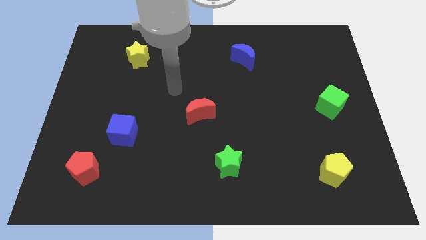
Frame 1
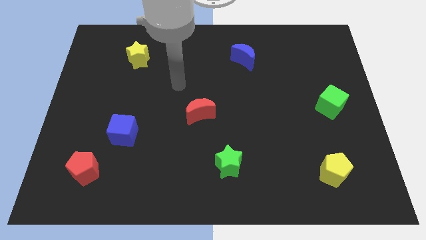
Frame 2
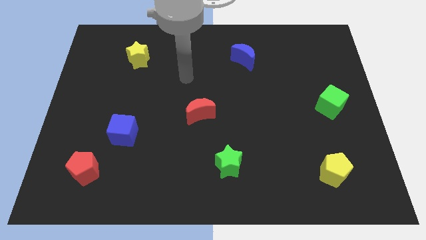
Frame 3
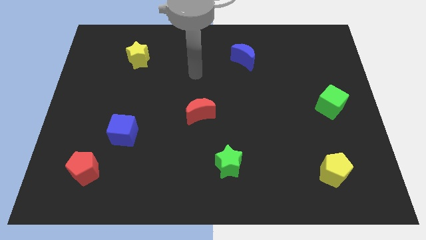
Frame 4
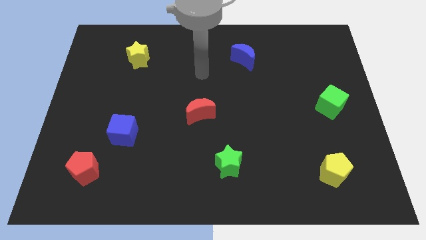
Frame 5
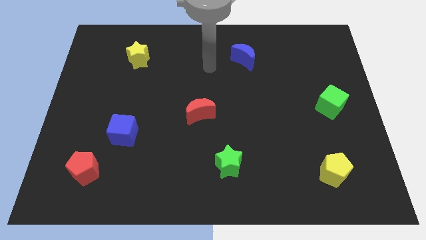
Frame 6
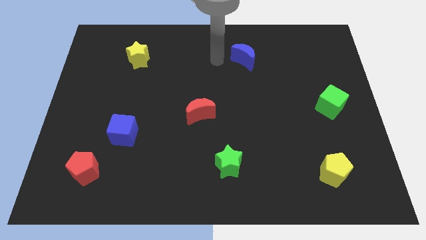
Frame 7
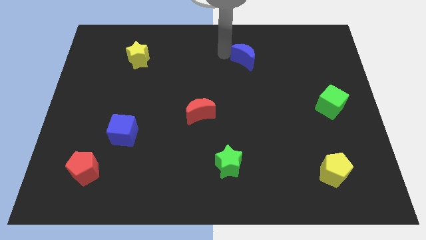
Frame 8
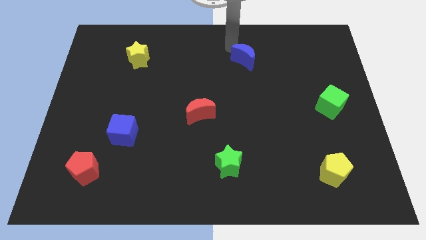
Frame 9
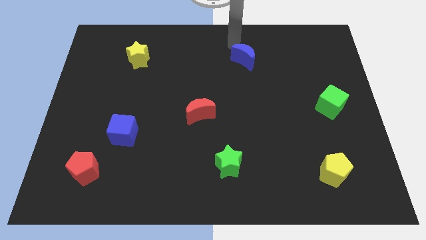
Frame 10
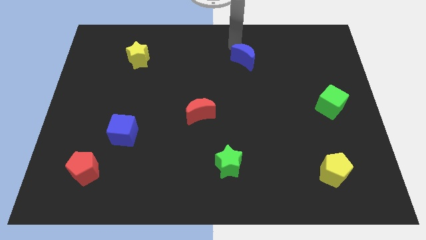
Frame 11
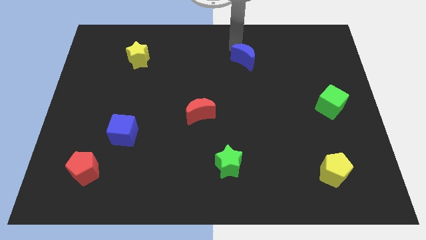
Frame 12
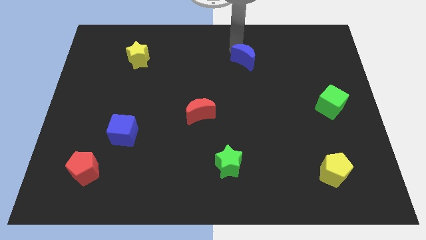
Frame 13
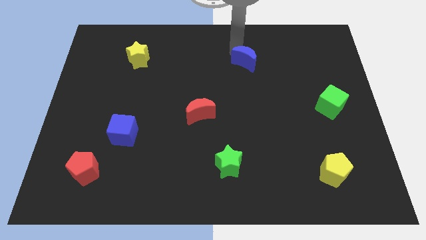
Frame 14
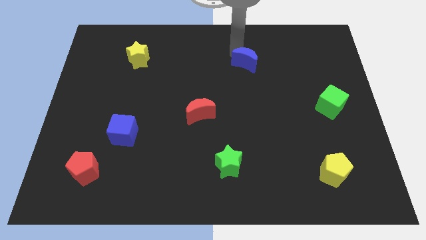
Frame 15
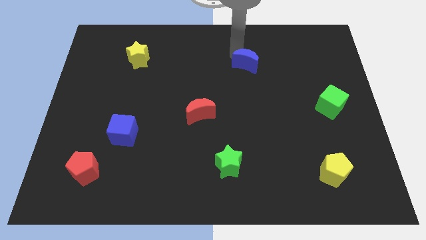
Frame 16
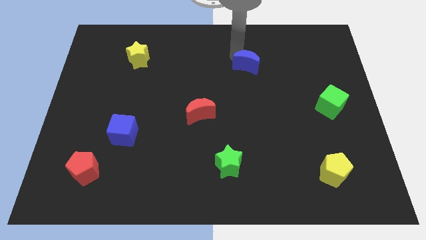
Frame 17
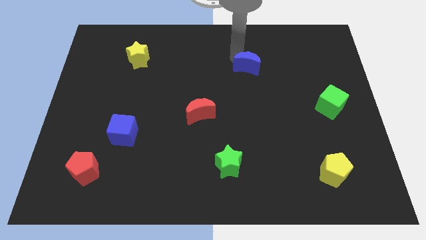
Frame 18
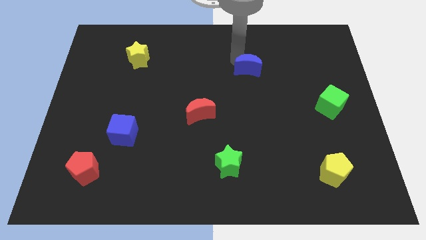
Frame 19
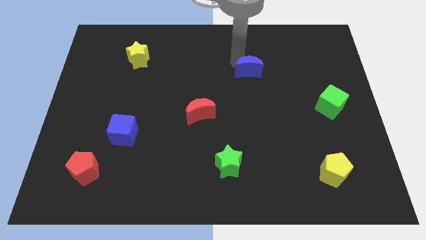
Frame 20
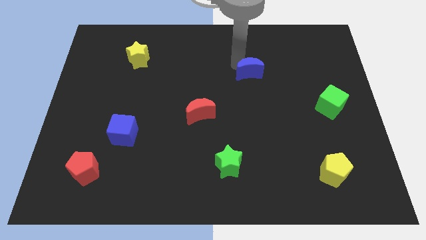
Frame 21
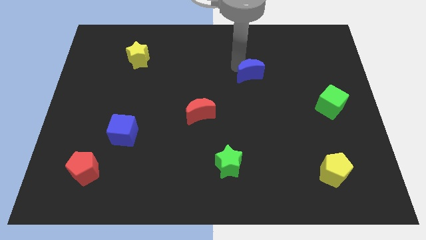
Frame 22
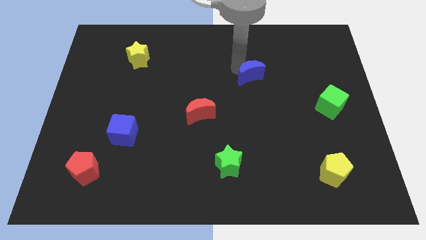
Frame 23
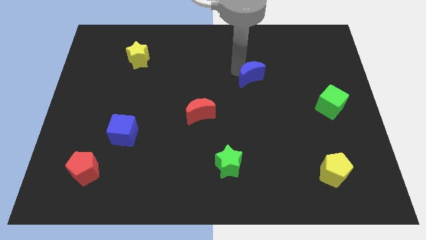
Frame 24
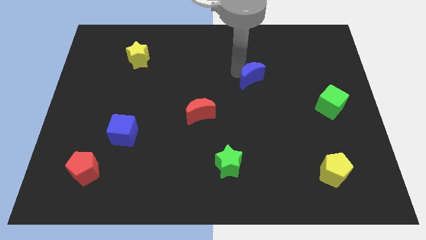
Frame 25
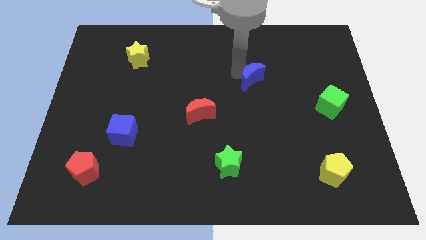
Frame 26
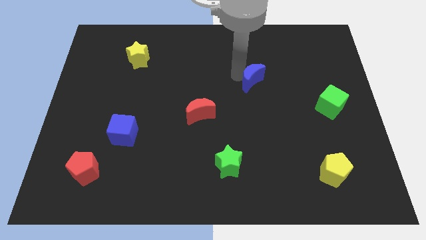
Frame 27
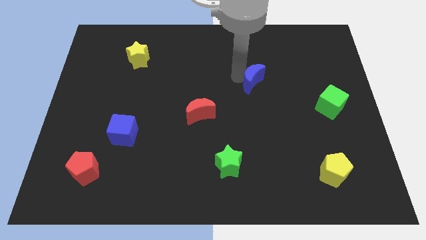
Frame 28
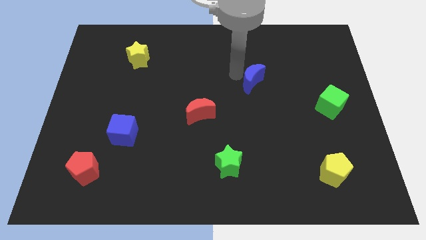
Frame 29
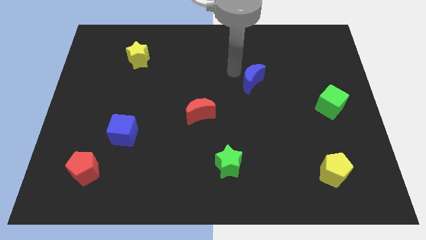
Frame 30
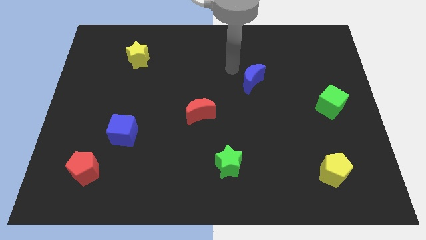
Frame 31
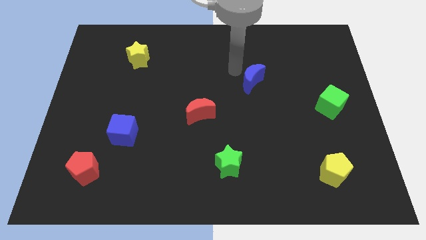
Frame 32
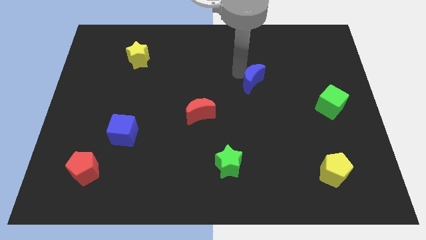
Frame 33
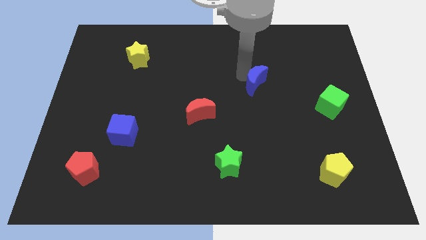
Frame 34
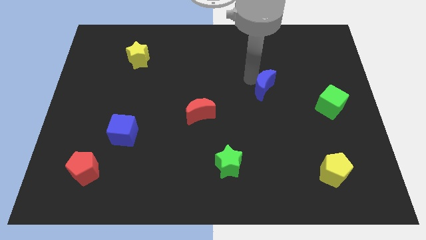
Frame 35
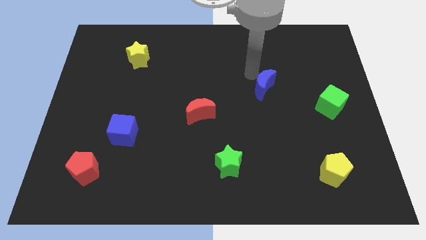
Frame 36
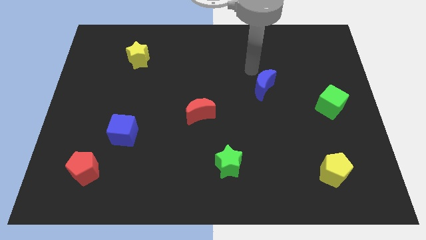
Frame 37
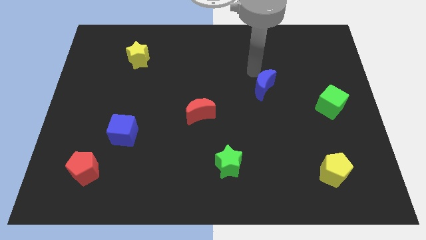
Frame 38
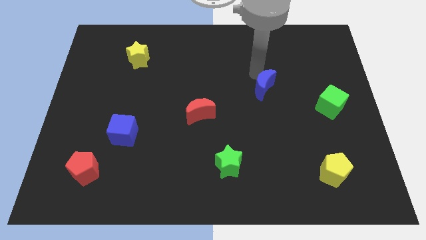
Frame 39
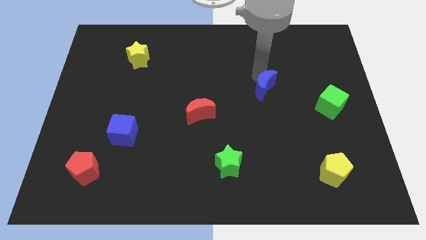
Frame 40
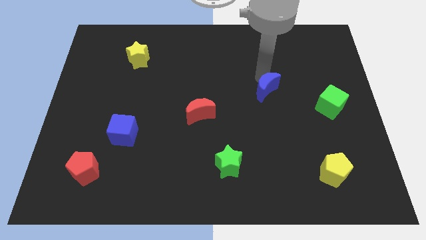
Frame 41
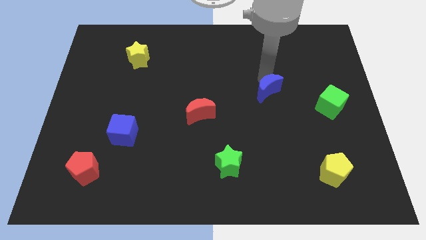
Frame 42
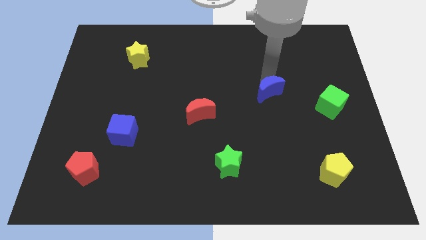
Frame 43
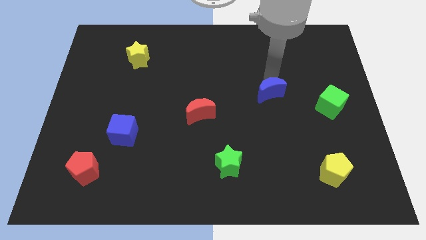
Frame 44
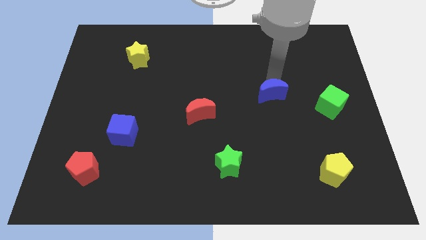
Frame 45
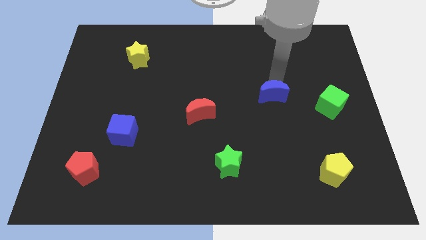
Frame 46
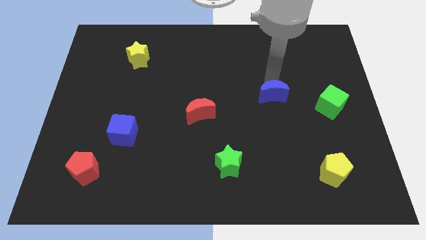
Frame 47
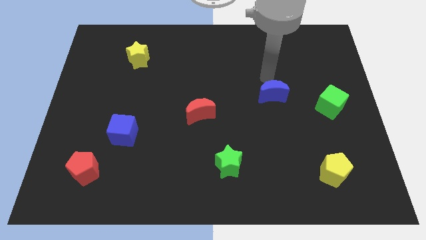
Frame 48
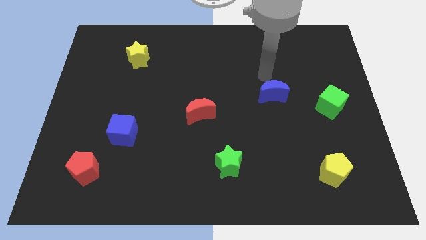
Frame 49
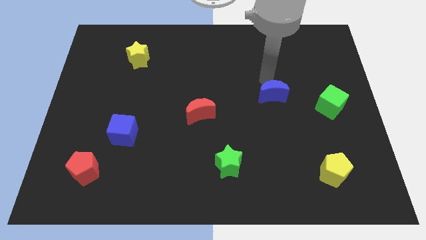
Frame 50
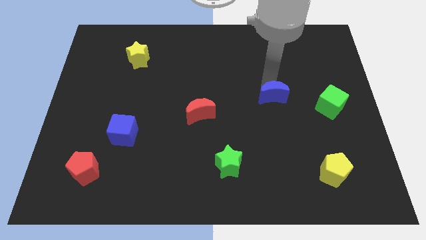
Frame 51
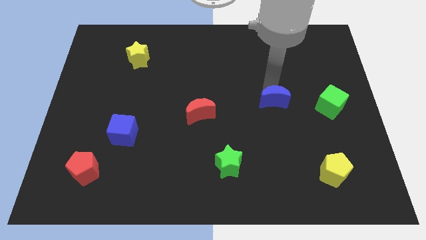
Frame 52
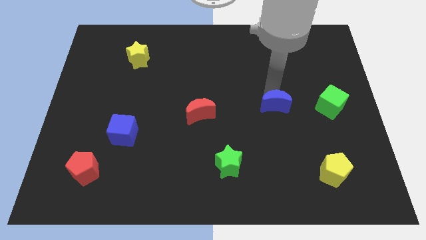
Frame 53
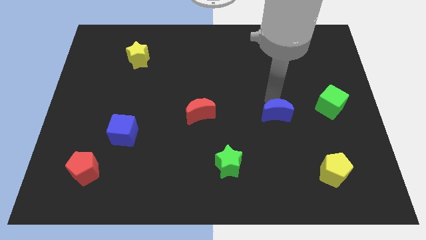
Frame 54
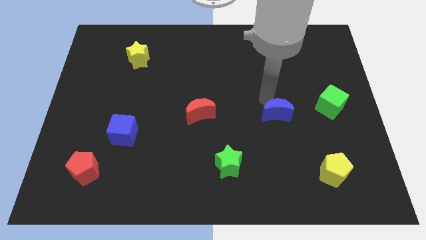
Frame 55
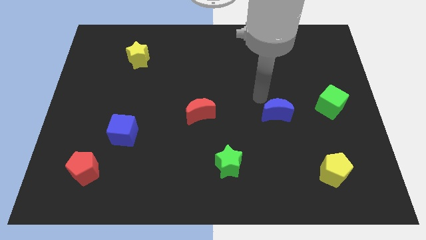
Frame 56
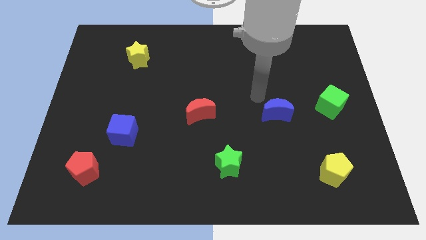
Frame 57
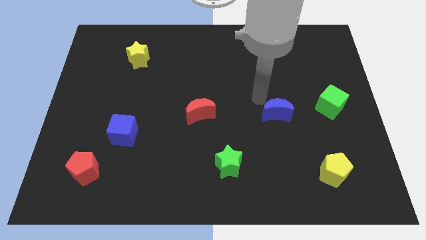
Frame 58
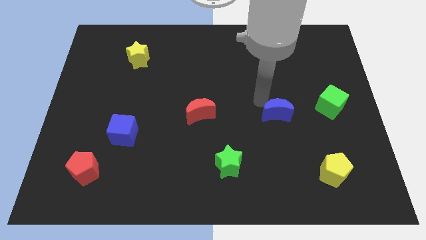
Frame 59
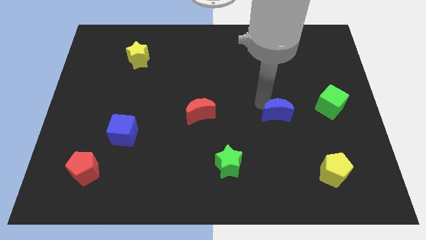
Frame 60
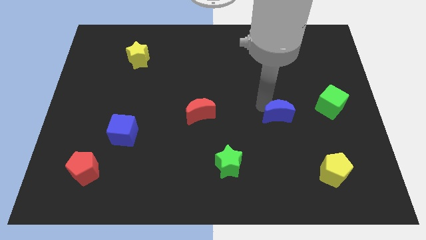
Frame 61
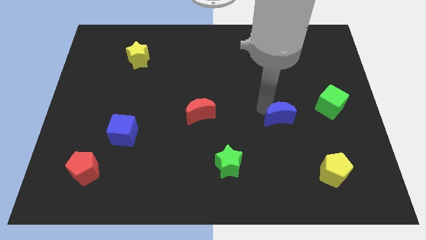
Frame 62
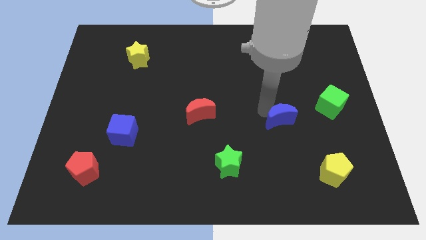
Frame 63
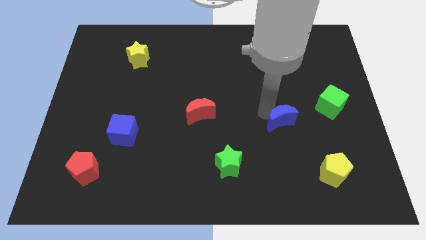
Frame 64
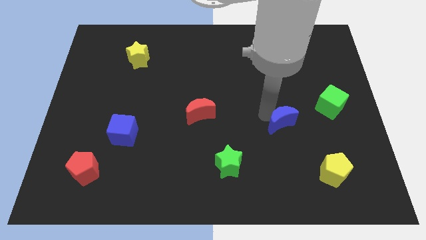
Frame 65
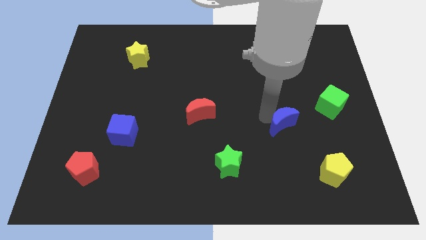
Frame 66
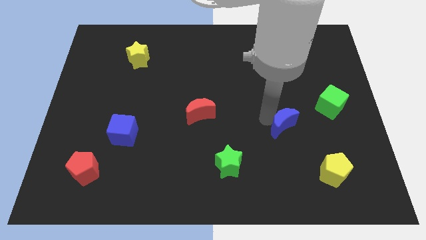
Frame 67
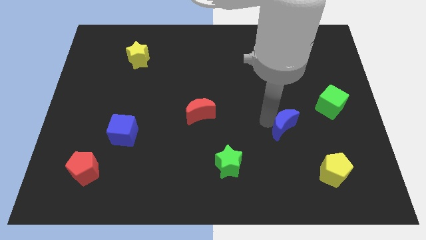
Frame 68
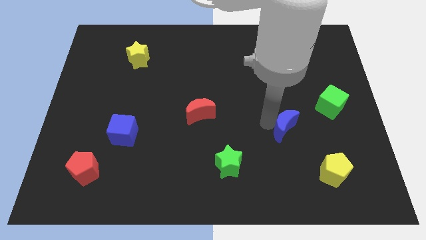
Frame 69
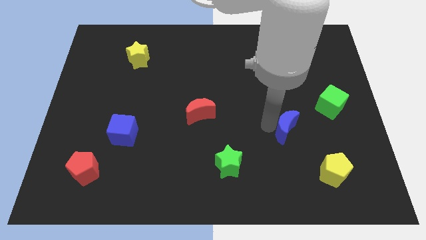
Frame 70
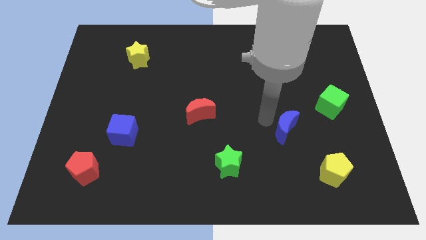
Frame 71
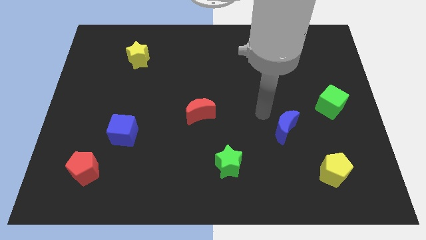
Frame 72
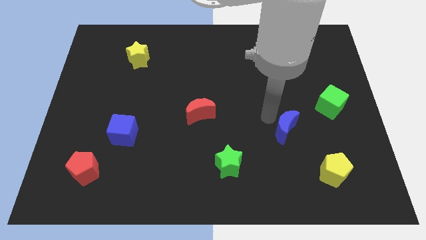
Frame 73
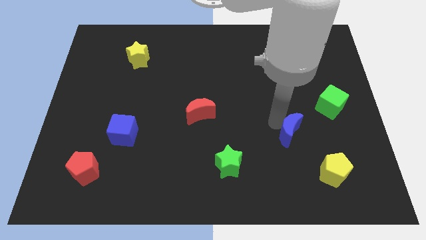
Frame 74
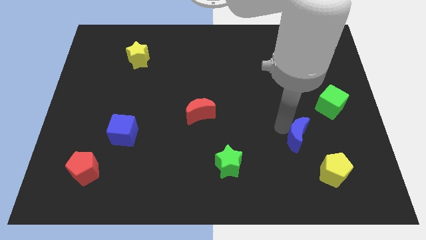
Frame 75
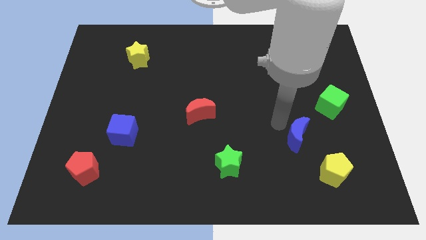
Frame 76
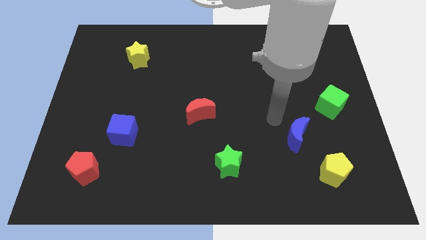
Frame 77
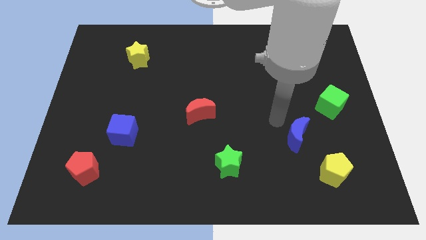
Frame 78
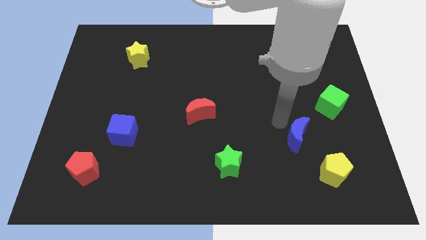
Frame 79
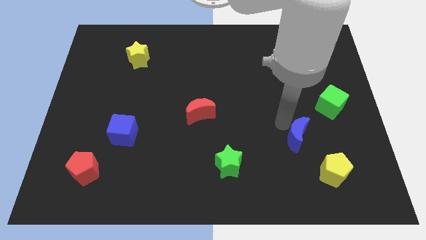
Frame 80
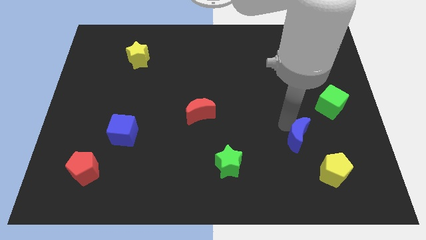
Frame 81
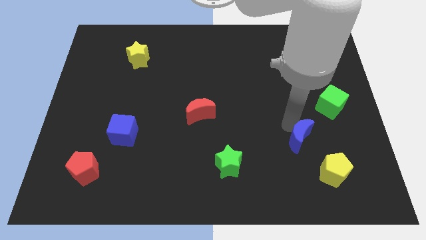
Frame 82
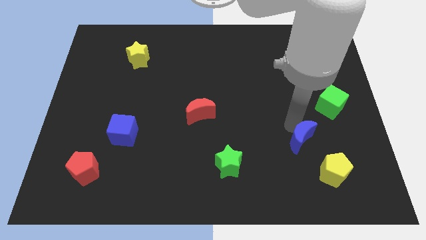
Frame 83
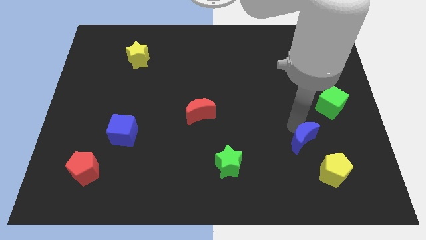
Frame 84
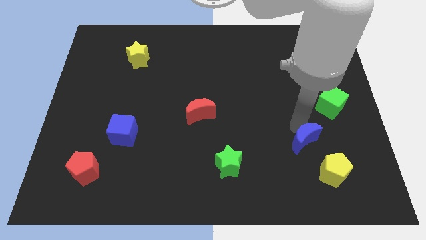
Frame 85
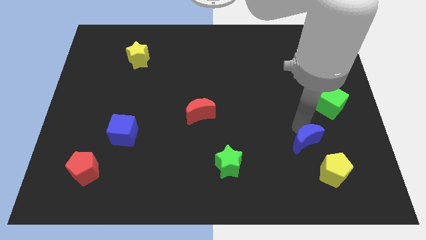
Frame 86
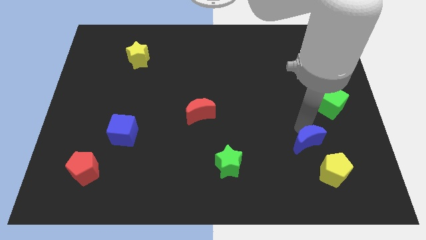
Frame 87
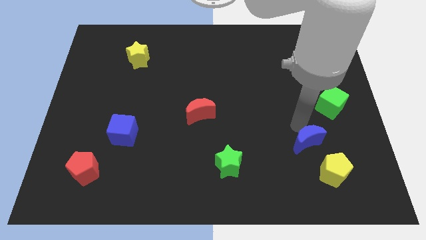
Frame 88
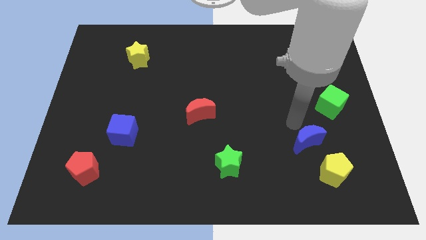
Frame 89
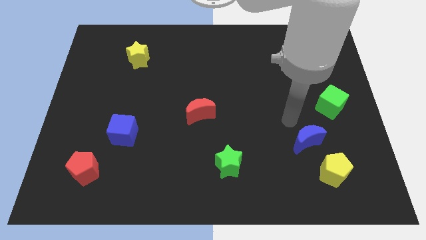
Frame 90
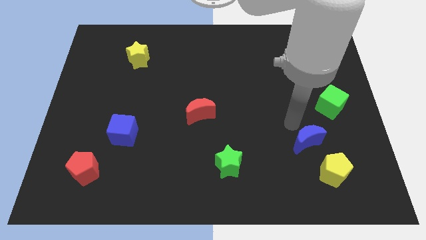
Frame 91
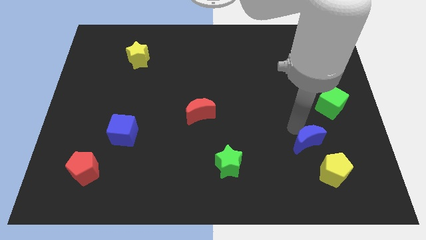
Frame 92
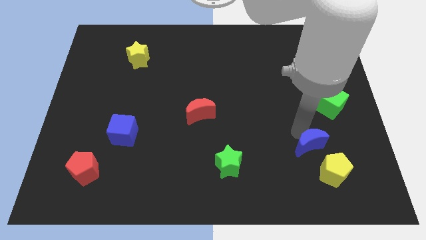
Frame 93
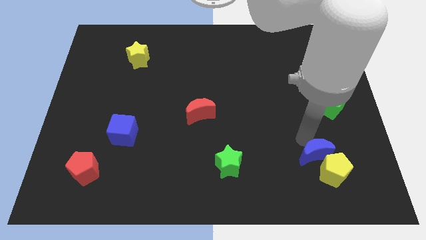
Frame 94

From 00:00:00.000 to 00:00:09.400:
slide the blue moon next to the yellow pentagon
